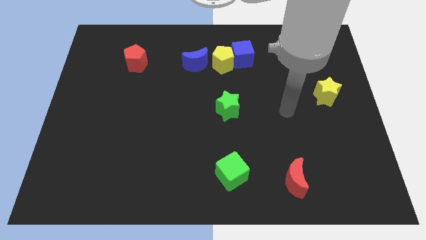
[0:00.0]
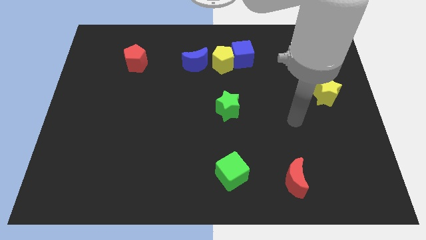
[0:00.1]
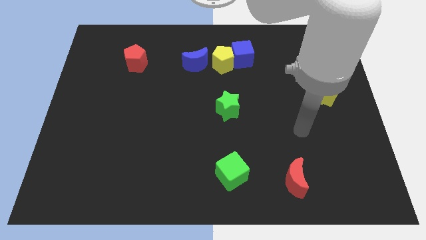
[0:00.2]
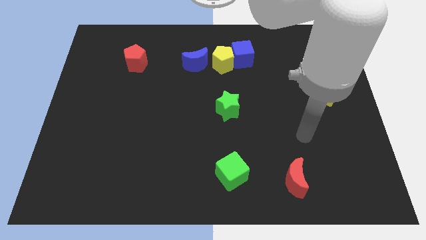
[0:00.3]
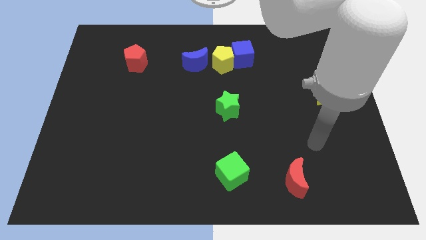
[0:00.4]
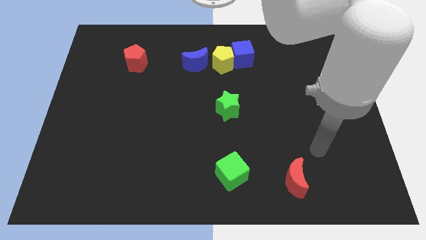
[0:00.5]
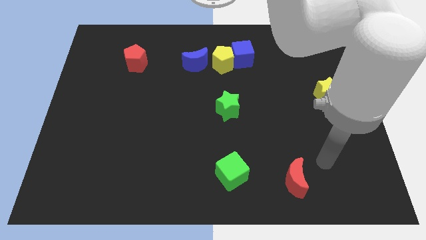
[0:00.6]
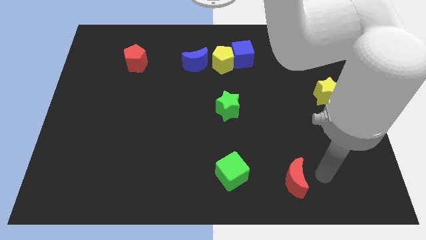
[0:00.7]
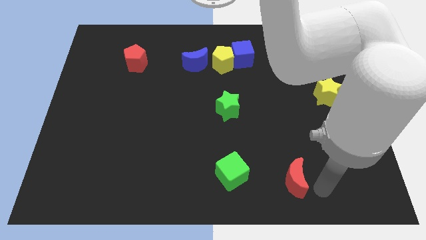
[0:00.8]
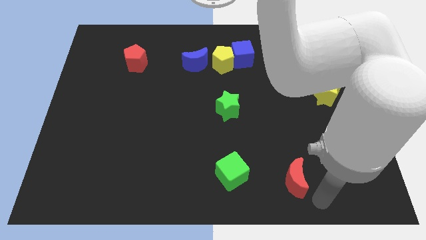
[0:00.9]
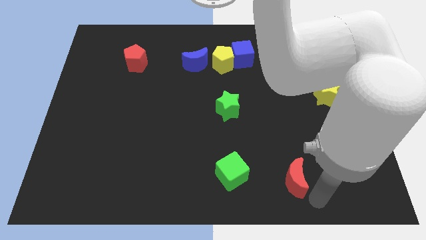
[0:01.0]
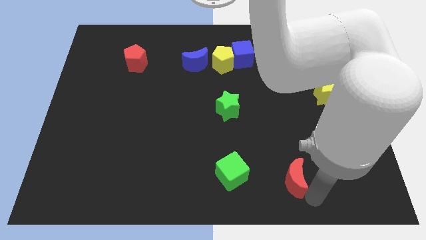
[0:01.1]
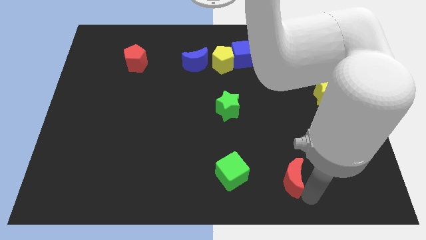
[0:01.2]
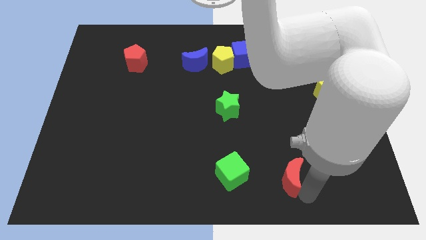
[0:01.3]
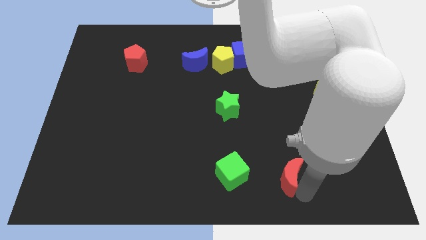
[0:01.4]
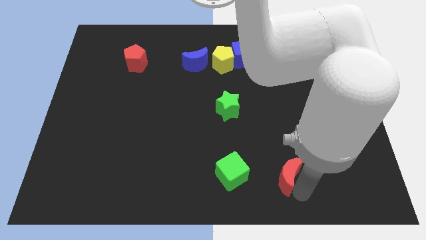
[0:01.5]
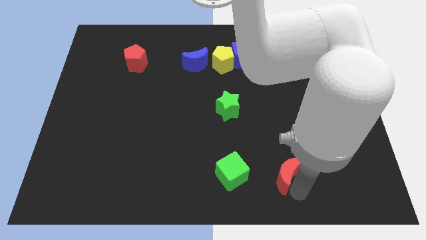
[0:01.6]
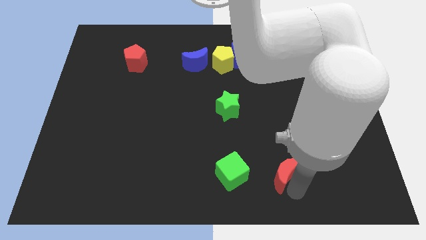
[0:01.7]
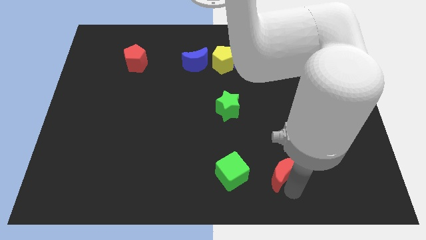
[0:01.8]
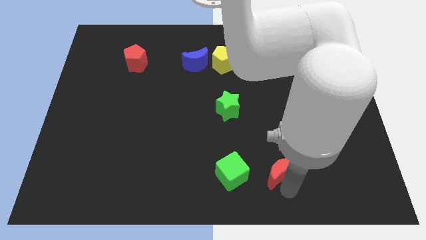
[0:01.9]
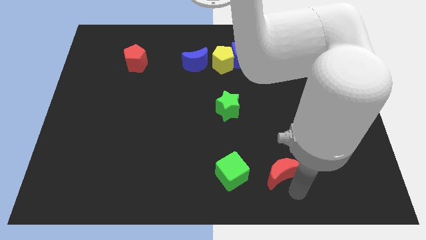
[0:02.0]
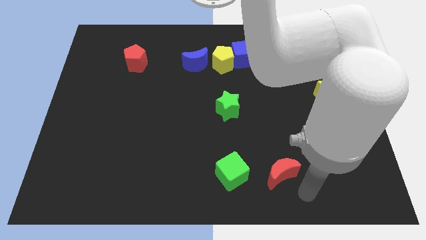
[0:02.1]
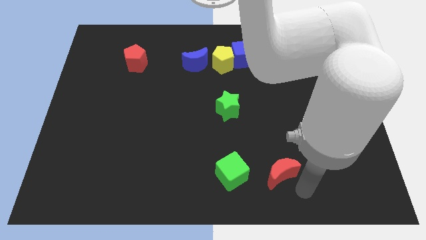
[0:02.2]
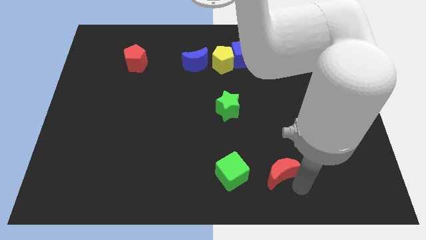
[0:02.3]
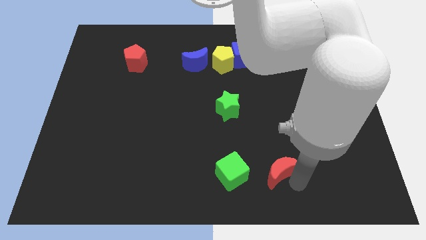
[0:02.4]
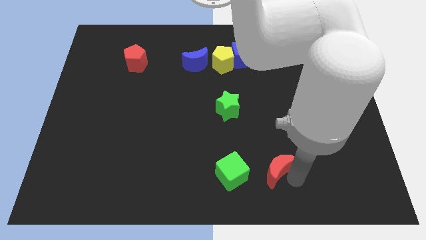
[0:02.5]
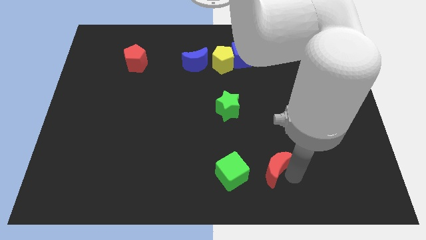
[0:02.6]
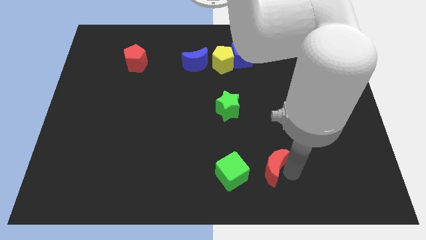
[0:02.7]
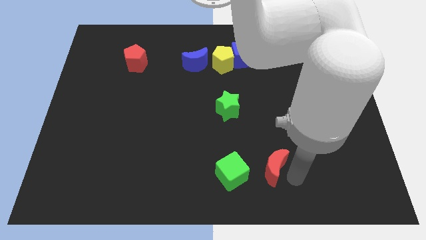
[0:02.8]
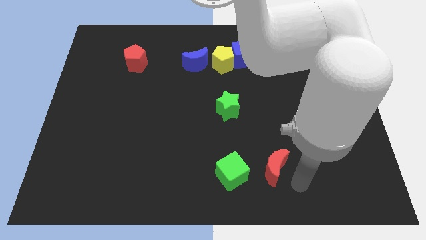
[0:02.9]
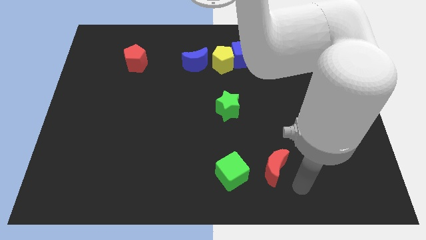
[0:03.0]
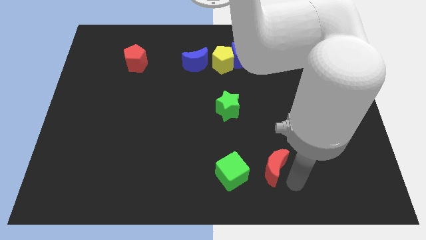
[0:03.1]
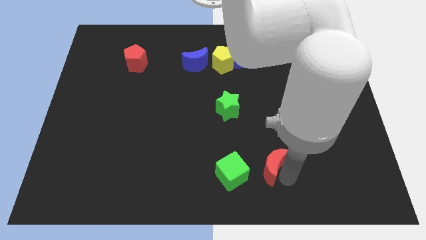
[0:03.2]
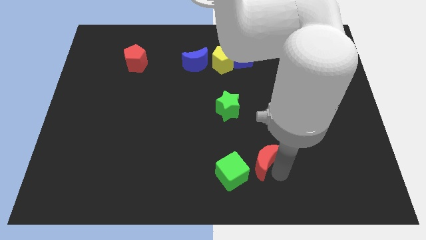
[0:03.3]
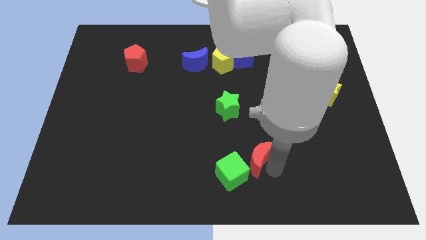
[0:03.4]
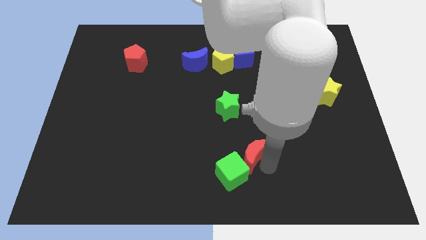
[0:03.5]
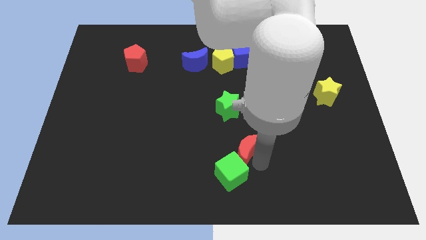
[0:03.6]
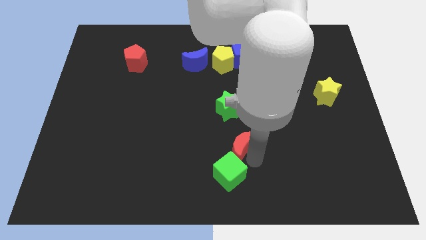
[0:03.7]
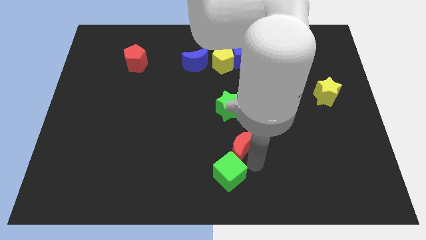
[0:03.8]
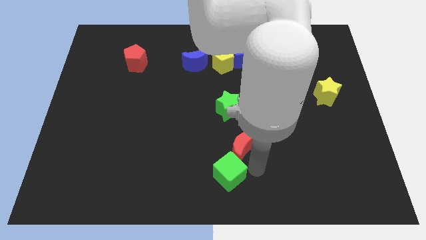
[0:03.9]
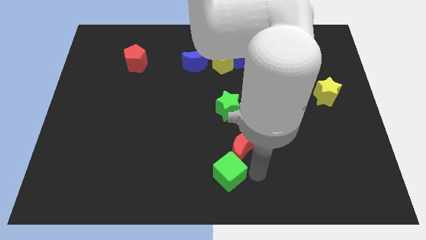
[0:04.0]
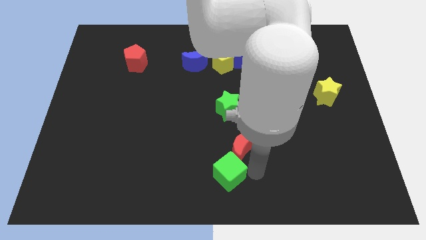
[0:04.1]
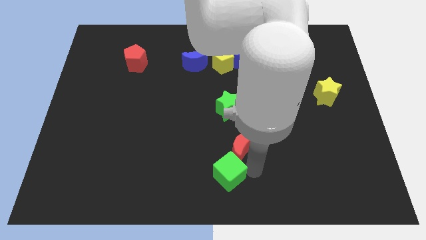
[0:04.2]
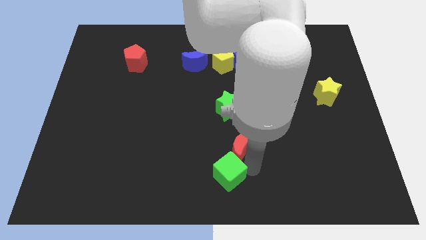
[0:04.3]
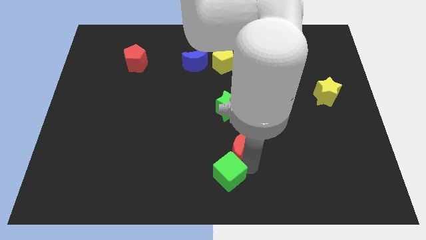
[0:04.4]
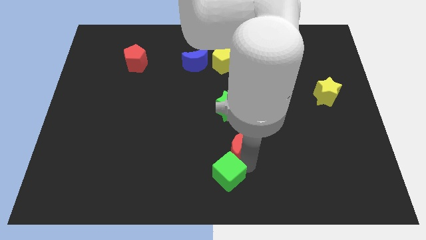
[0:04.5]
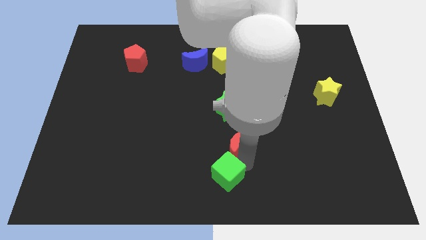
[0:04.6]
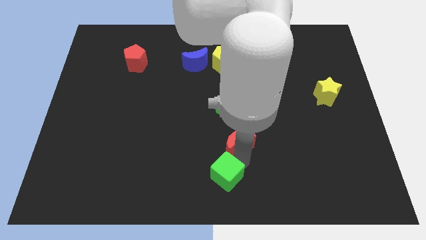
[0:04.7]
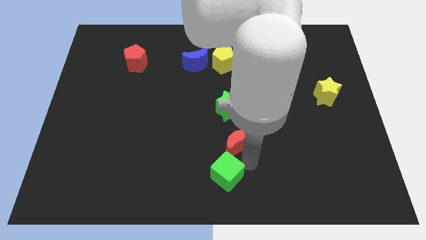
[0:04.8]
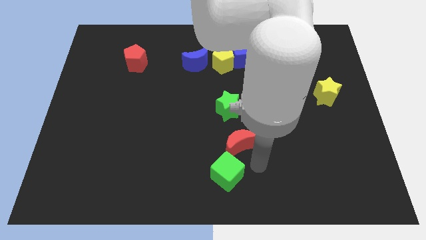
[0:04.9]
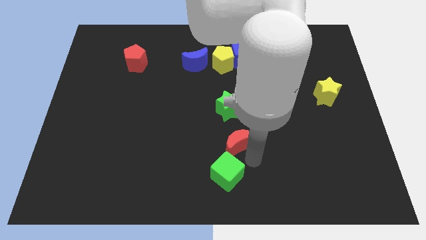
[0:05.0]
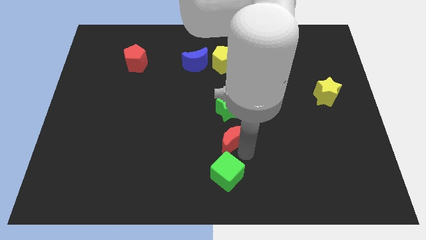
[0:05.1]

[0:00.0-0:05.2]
push the red moon to the center of the board

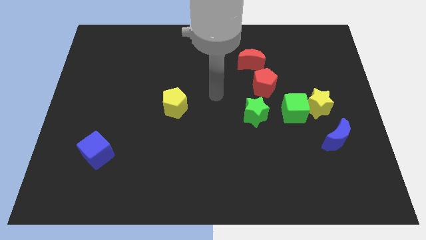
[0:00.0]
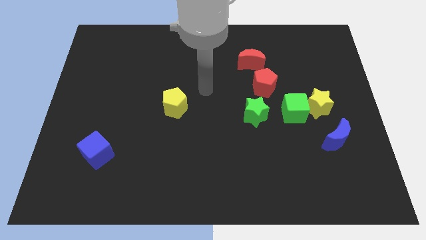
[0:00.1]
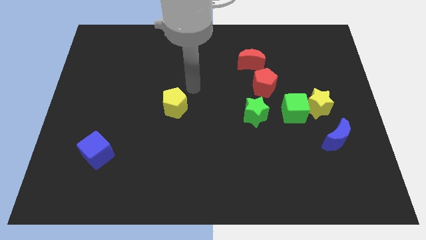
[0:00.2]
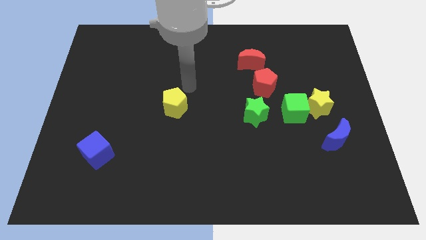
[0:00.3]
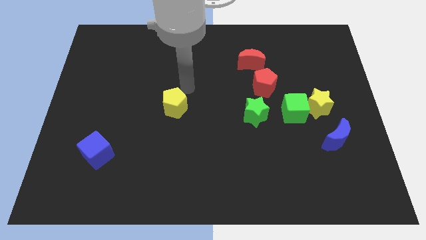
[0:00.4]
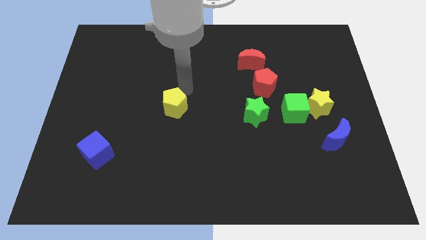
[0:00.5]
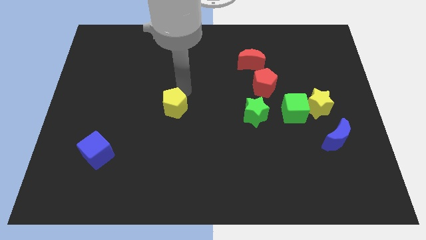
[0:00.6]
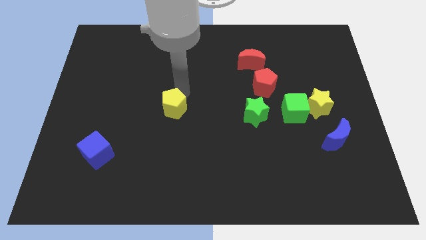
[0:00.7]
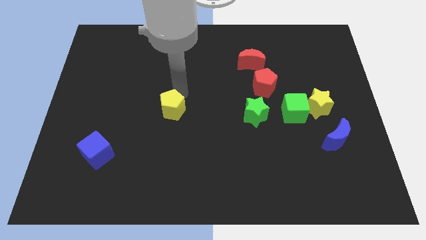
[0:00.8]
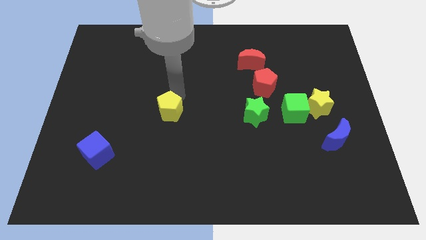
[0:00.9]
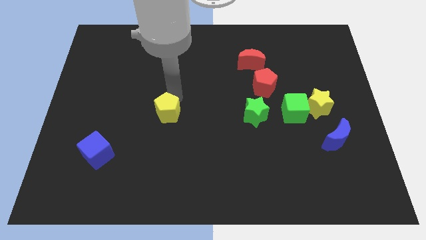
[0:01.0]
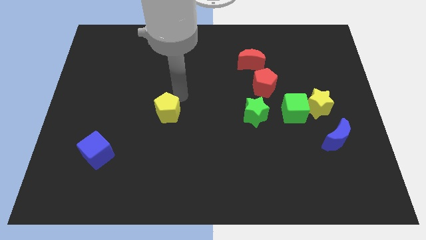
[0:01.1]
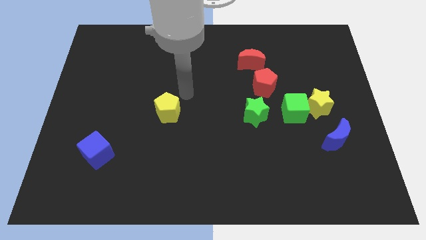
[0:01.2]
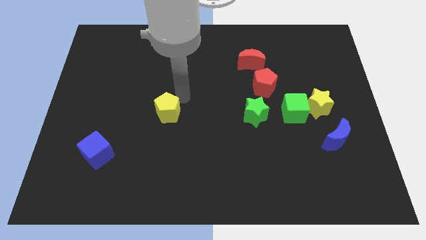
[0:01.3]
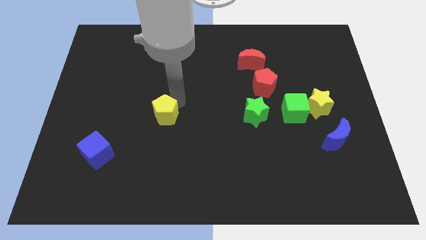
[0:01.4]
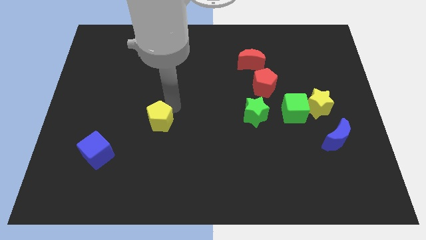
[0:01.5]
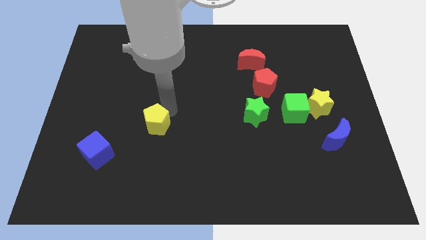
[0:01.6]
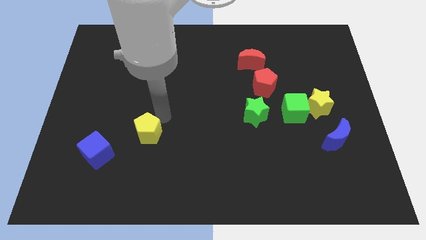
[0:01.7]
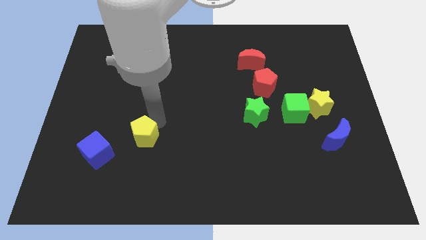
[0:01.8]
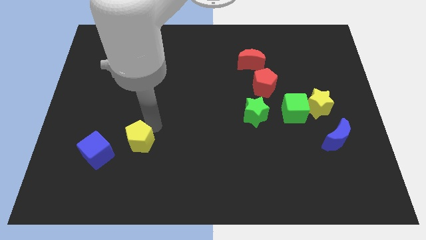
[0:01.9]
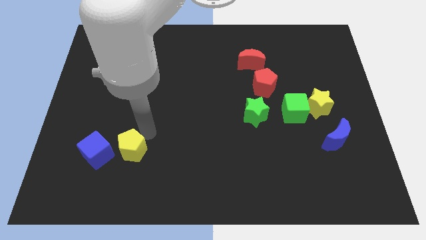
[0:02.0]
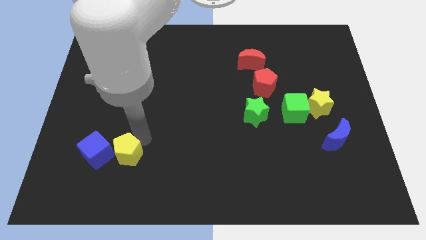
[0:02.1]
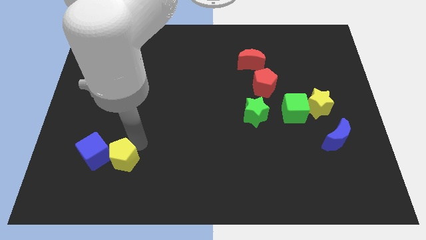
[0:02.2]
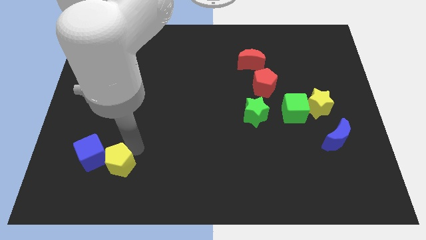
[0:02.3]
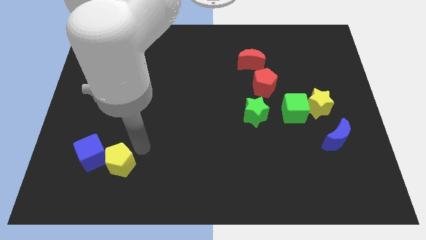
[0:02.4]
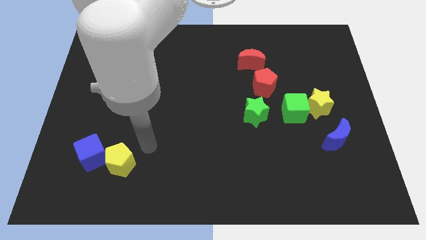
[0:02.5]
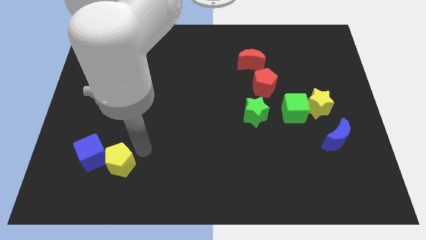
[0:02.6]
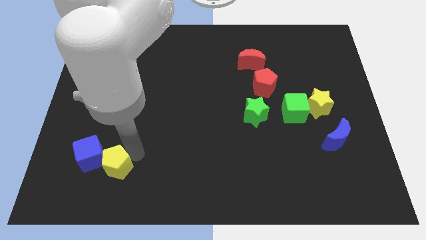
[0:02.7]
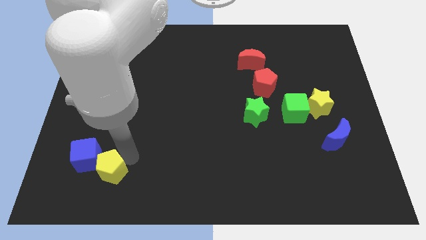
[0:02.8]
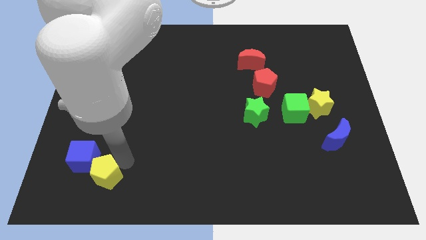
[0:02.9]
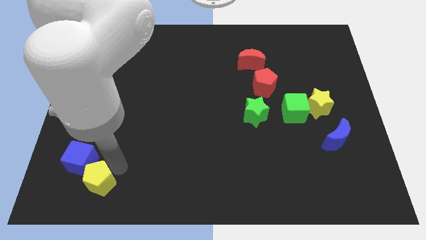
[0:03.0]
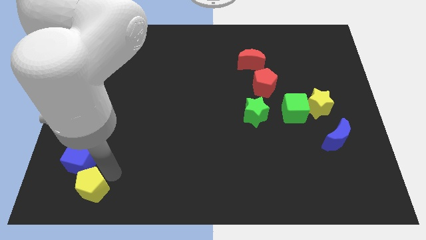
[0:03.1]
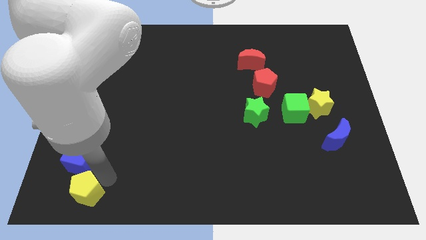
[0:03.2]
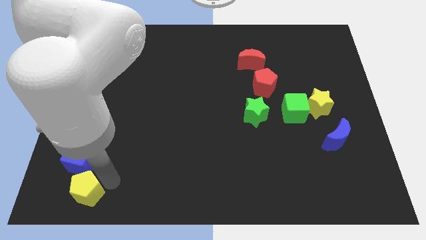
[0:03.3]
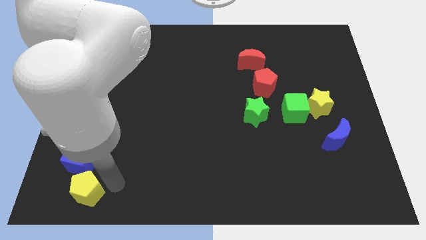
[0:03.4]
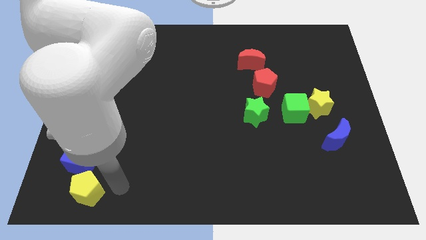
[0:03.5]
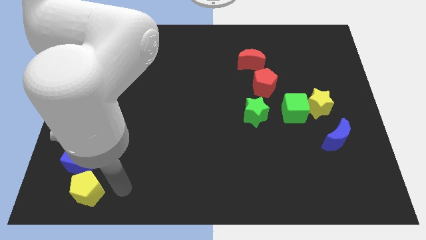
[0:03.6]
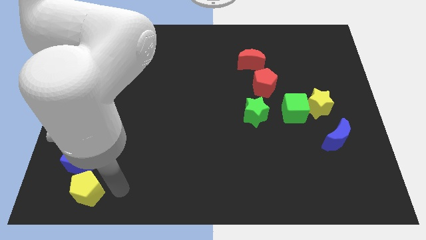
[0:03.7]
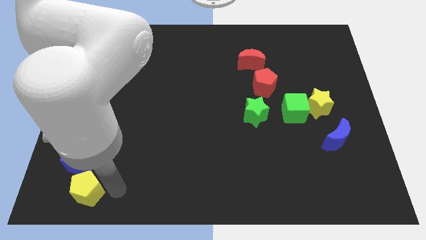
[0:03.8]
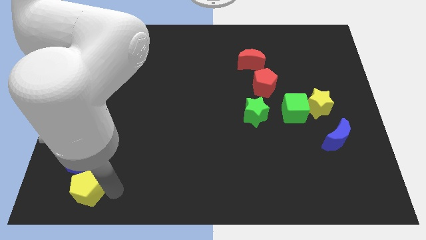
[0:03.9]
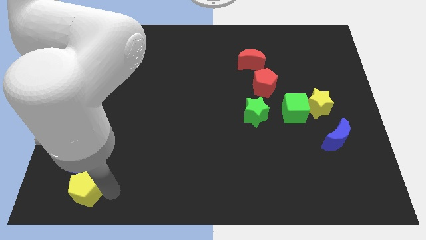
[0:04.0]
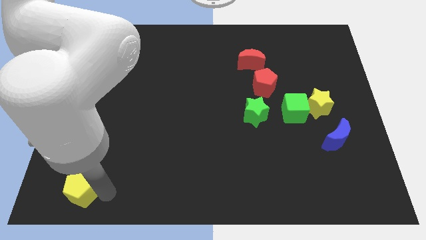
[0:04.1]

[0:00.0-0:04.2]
put the yellow pentagon to the bottom left corner
